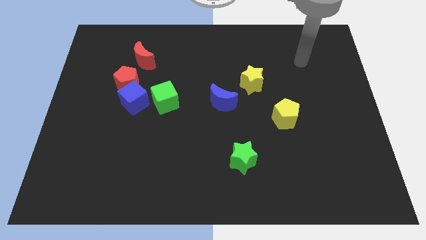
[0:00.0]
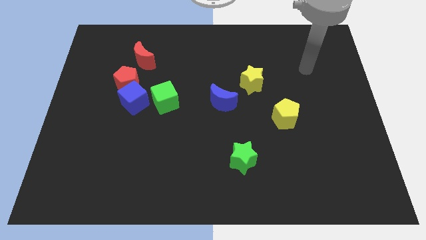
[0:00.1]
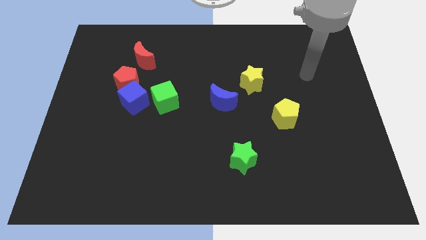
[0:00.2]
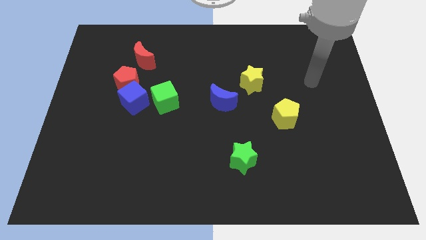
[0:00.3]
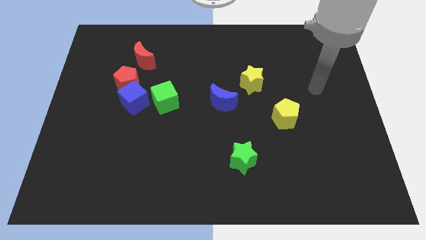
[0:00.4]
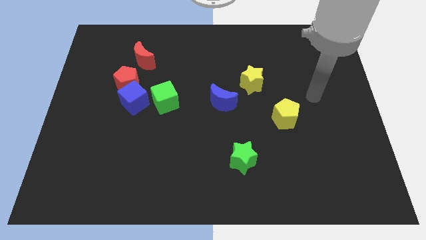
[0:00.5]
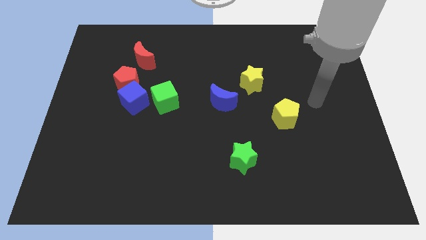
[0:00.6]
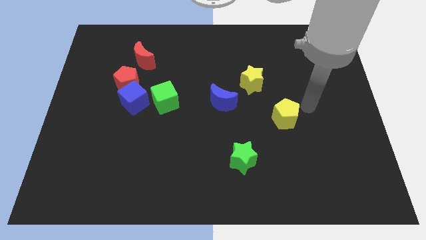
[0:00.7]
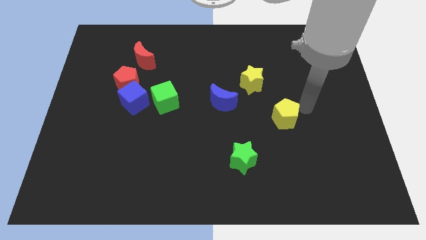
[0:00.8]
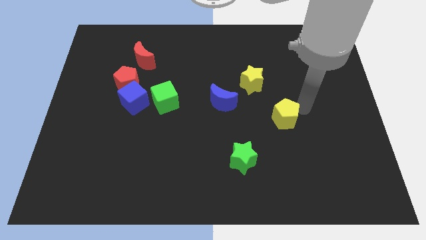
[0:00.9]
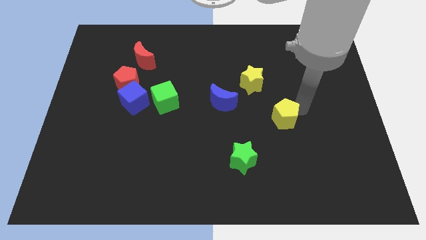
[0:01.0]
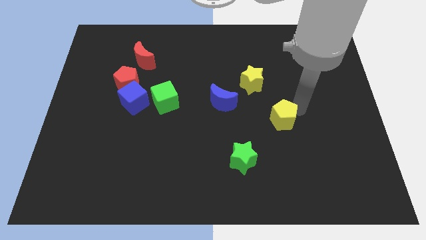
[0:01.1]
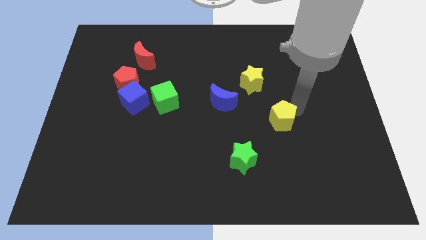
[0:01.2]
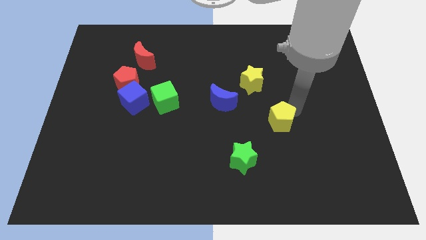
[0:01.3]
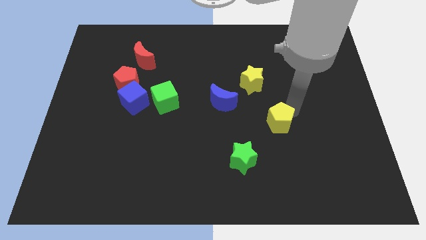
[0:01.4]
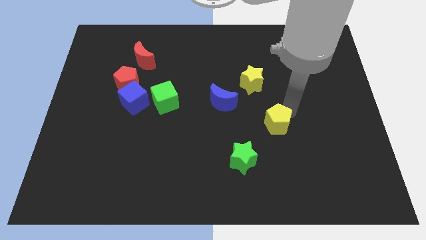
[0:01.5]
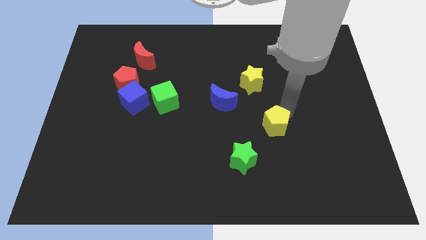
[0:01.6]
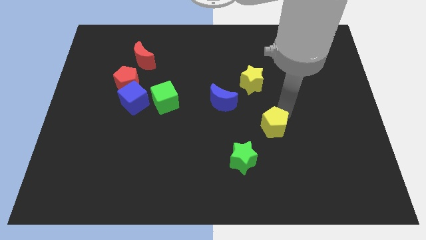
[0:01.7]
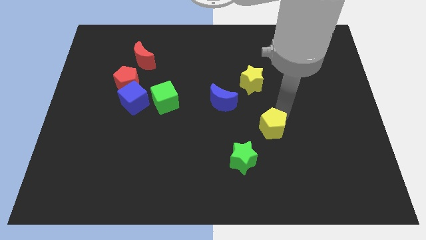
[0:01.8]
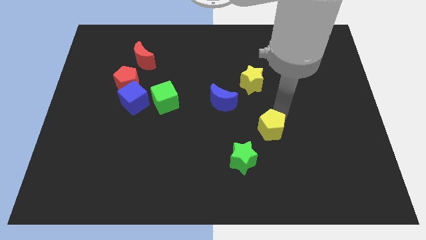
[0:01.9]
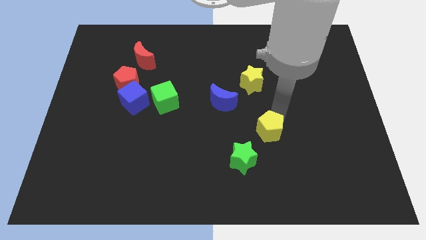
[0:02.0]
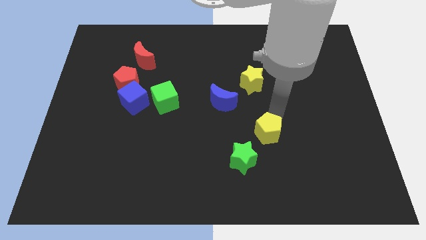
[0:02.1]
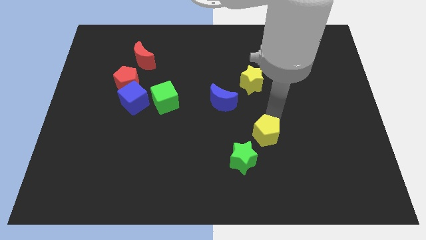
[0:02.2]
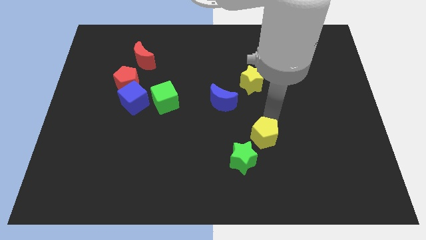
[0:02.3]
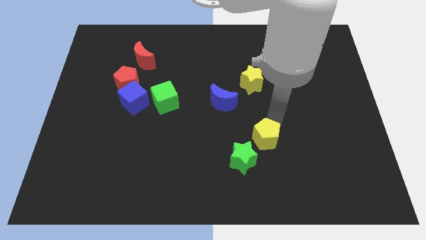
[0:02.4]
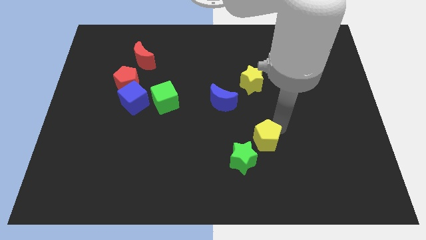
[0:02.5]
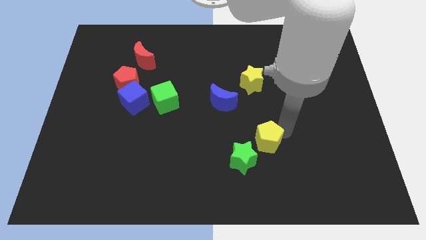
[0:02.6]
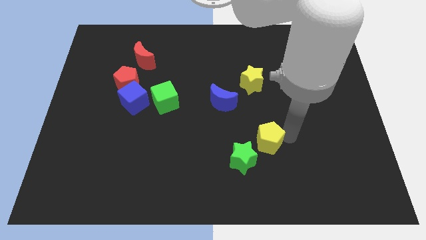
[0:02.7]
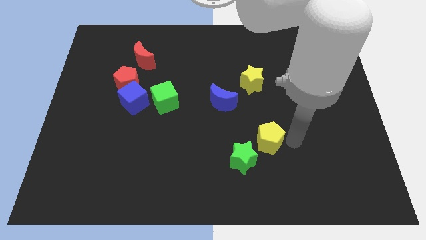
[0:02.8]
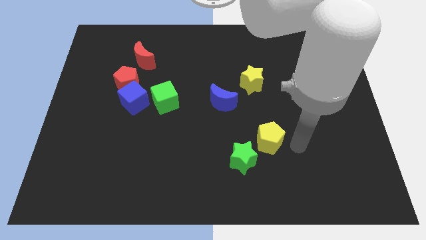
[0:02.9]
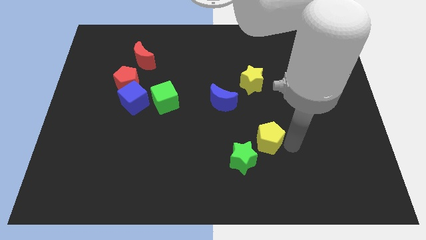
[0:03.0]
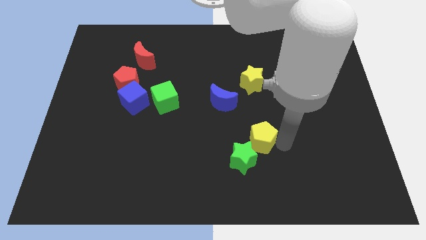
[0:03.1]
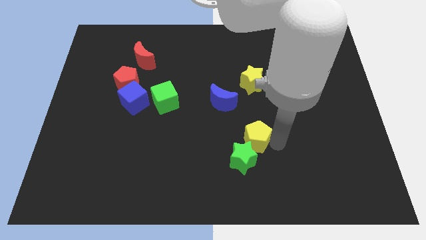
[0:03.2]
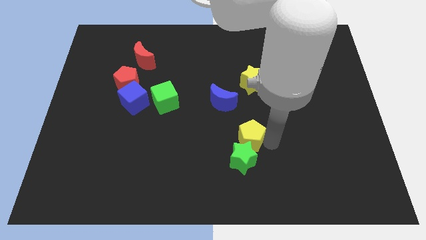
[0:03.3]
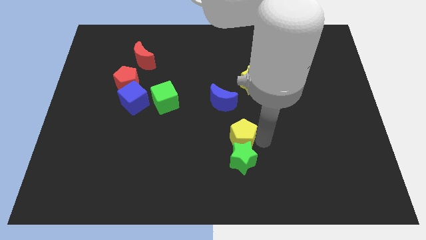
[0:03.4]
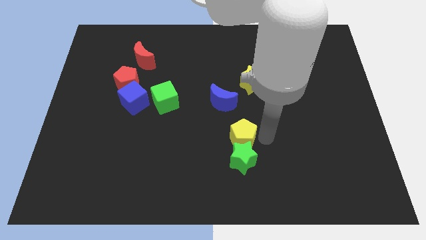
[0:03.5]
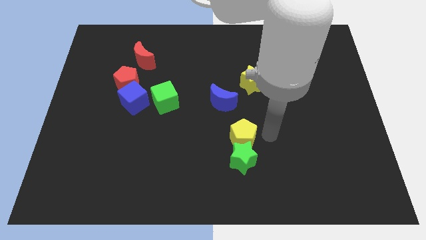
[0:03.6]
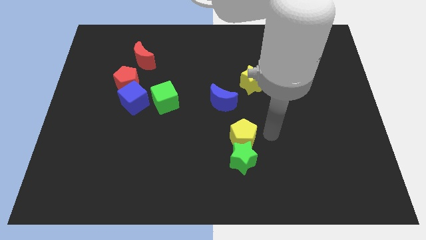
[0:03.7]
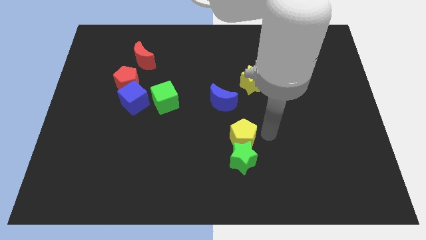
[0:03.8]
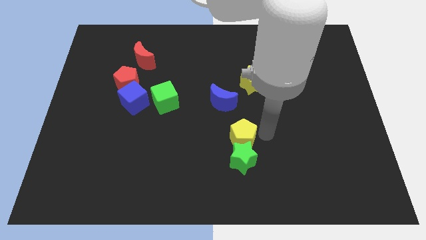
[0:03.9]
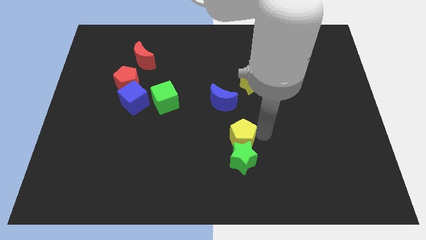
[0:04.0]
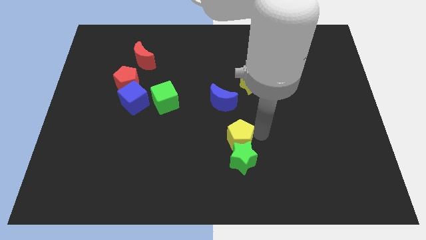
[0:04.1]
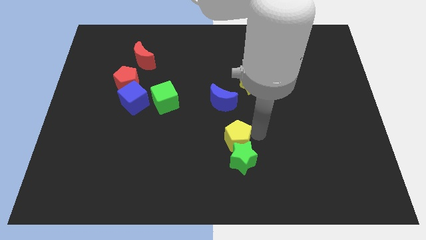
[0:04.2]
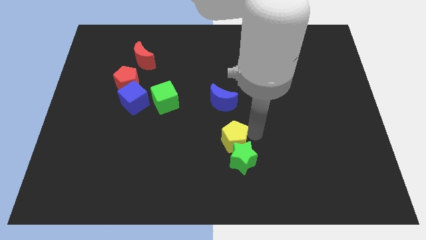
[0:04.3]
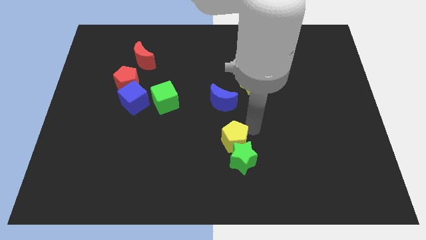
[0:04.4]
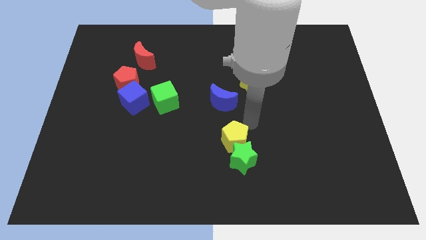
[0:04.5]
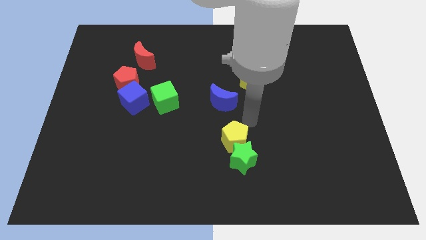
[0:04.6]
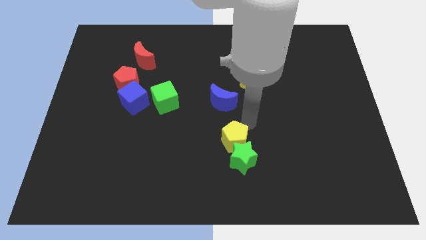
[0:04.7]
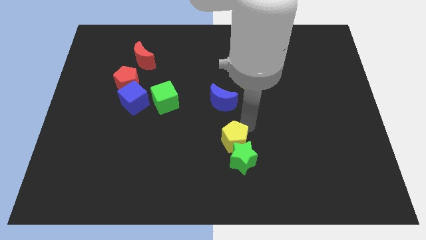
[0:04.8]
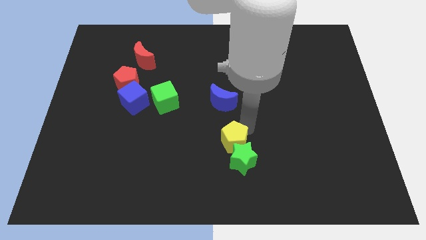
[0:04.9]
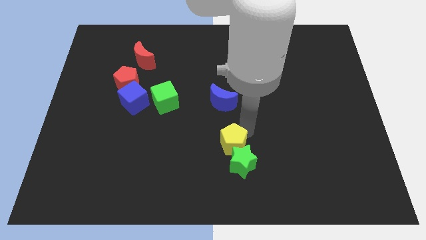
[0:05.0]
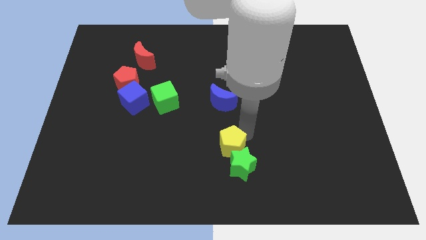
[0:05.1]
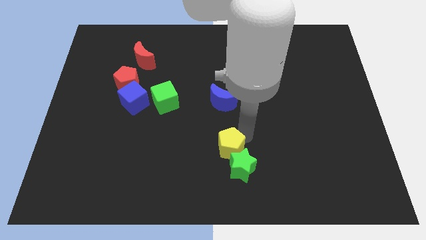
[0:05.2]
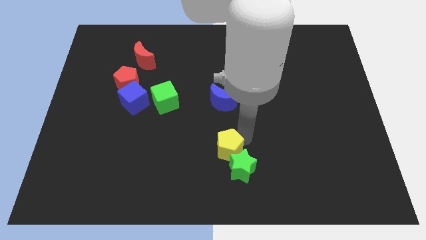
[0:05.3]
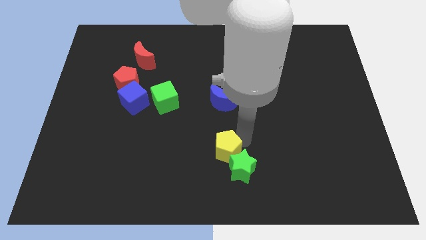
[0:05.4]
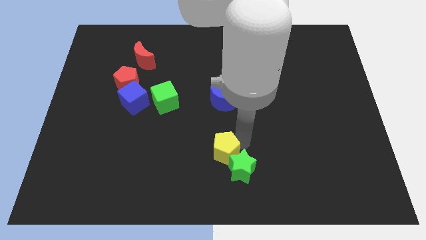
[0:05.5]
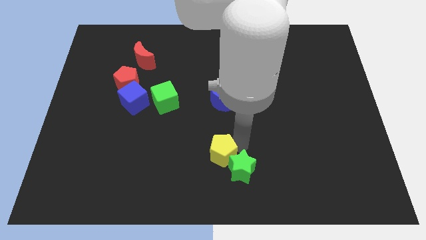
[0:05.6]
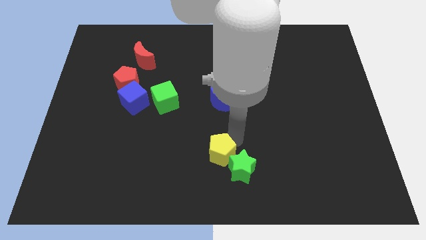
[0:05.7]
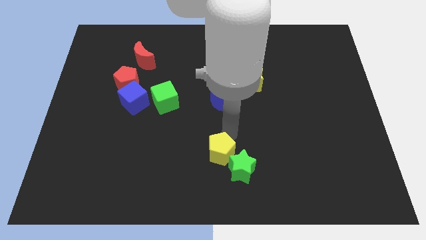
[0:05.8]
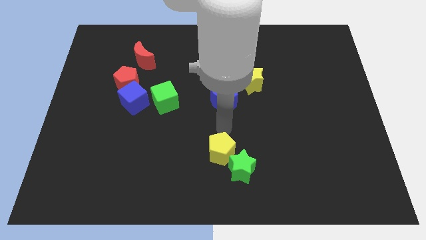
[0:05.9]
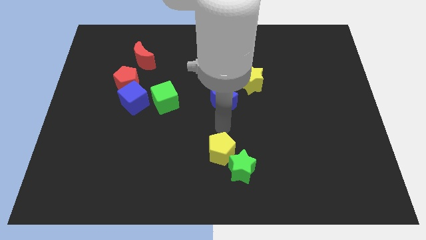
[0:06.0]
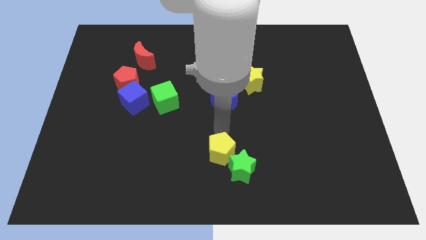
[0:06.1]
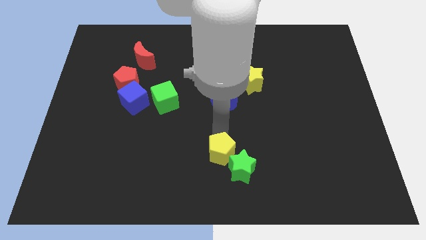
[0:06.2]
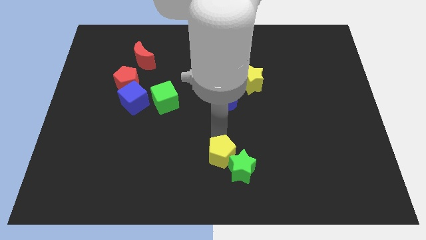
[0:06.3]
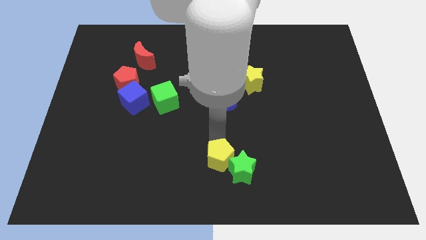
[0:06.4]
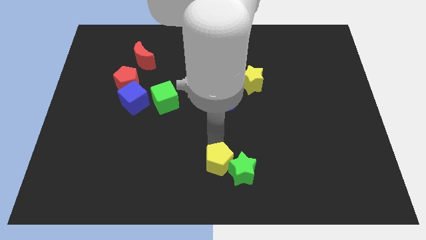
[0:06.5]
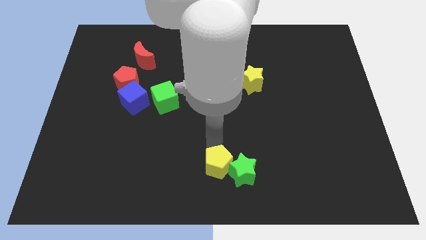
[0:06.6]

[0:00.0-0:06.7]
put the yellow pentagon diagonally down and to the left of the green star
